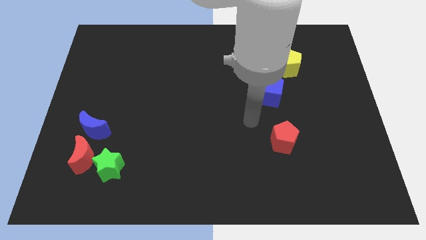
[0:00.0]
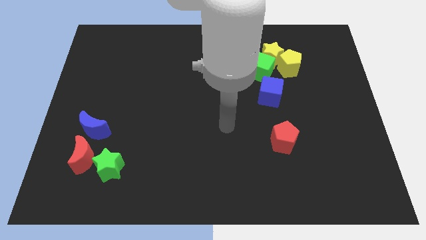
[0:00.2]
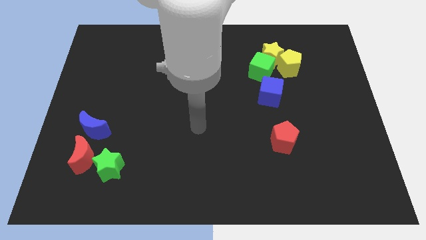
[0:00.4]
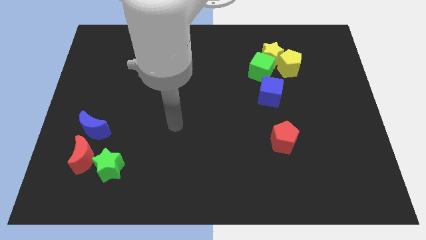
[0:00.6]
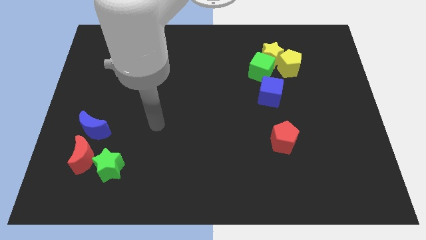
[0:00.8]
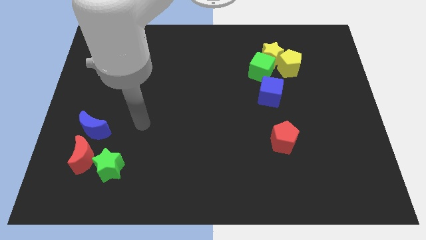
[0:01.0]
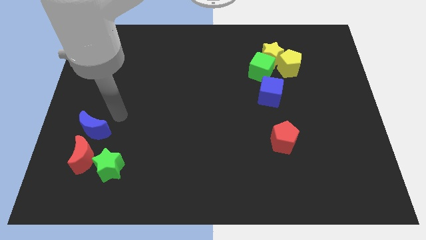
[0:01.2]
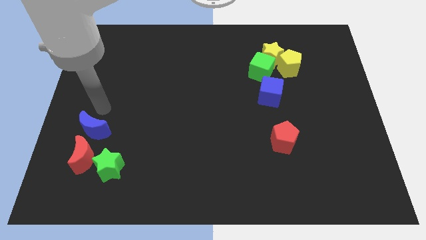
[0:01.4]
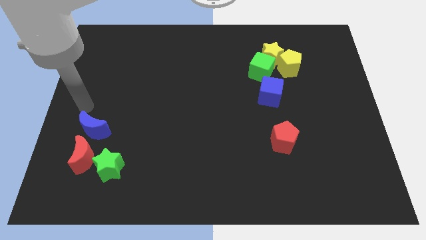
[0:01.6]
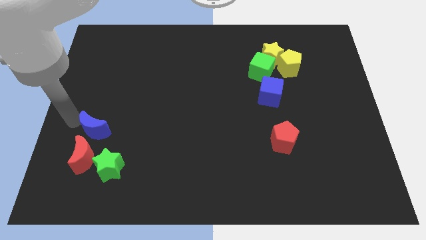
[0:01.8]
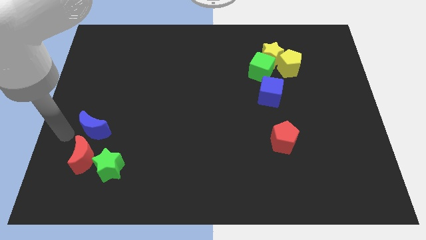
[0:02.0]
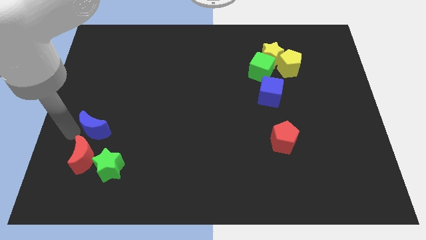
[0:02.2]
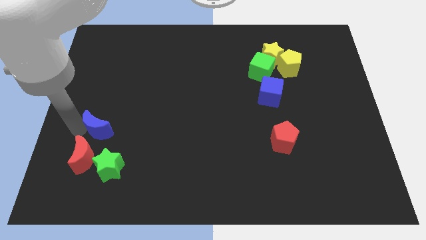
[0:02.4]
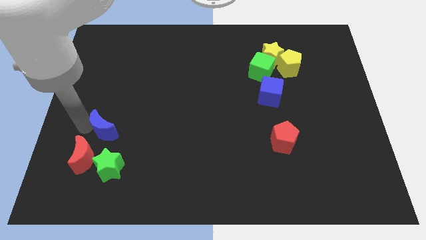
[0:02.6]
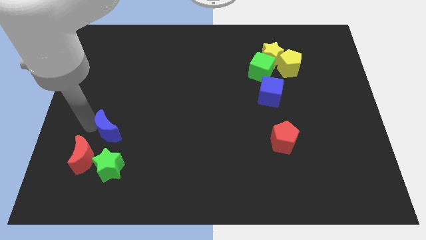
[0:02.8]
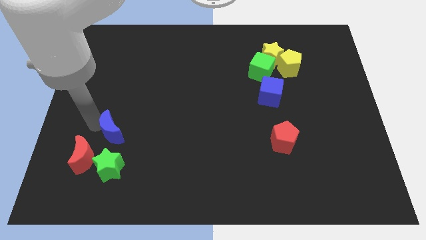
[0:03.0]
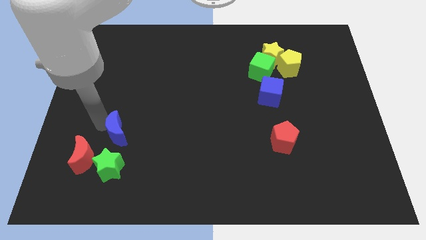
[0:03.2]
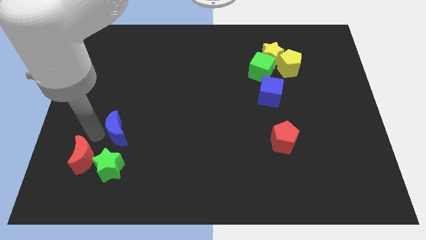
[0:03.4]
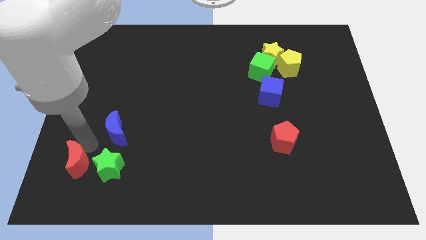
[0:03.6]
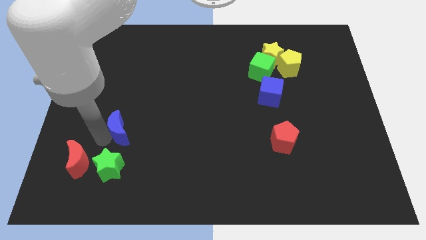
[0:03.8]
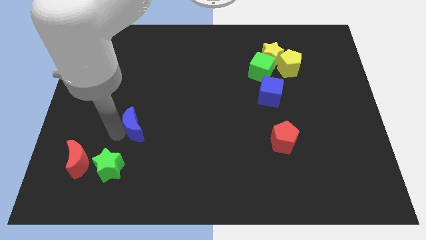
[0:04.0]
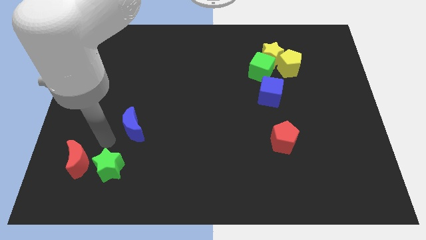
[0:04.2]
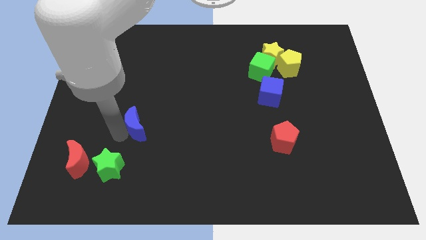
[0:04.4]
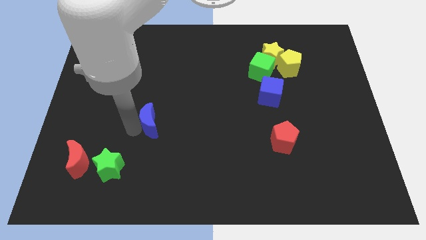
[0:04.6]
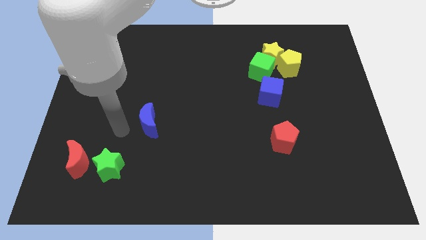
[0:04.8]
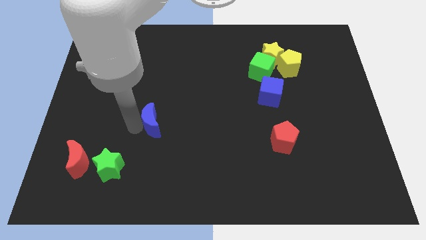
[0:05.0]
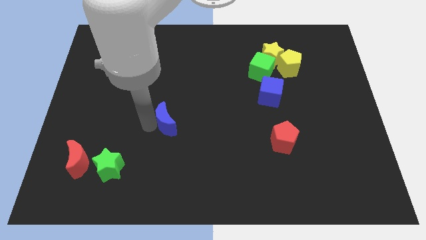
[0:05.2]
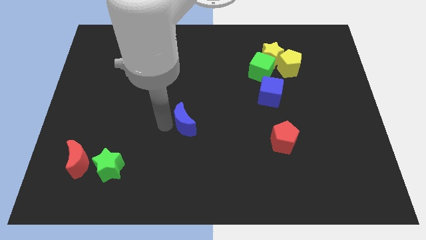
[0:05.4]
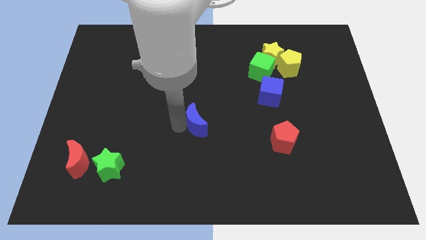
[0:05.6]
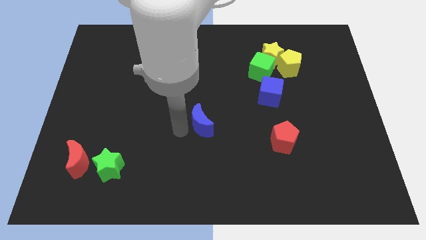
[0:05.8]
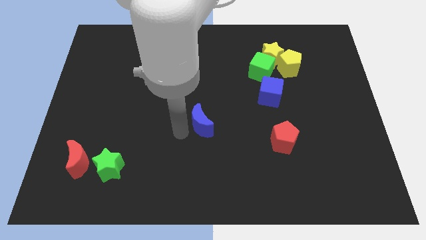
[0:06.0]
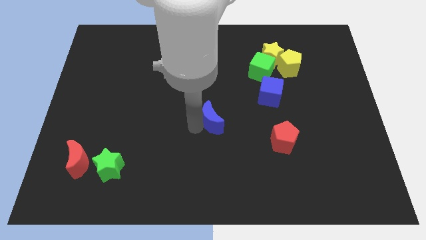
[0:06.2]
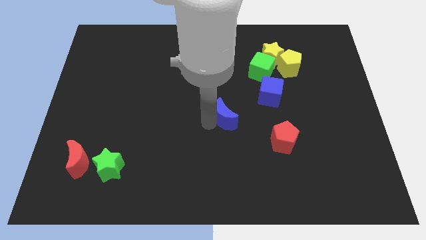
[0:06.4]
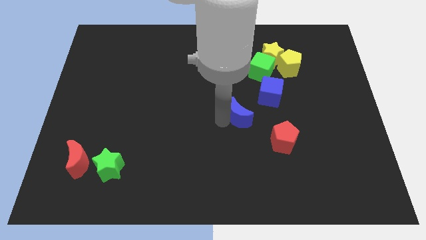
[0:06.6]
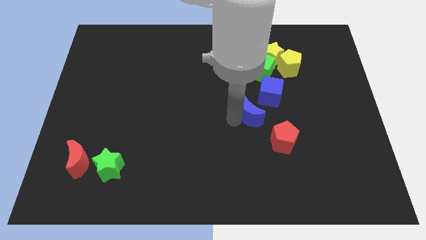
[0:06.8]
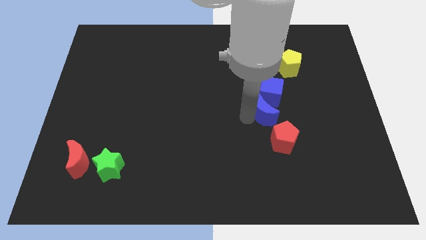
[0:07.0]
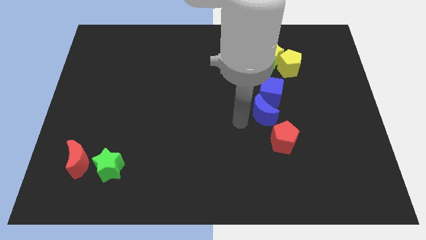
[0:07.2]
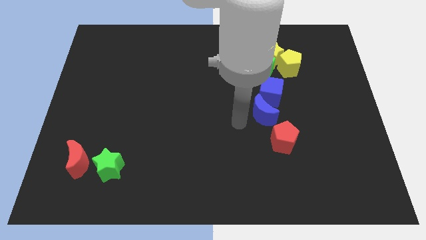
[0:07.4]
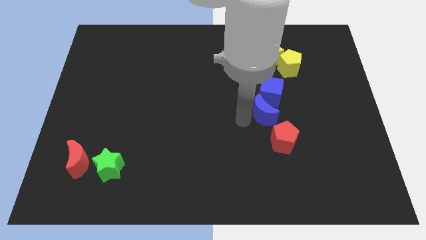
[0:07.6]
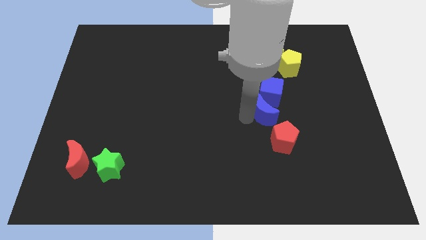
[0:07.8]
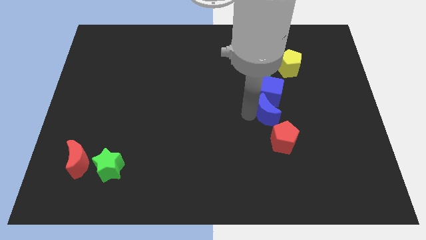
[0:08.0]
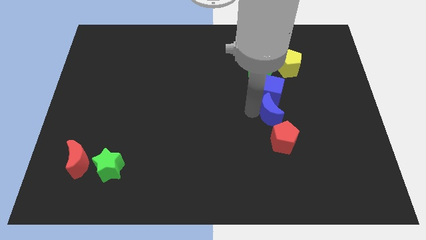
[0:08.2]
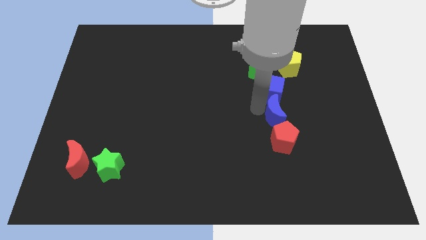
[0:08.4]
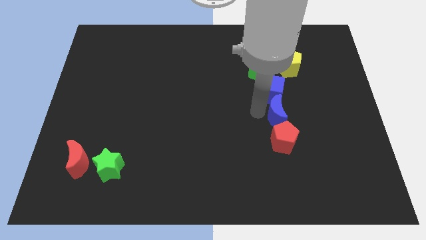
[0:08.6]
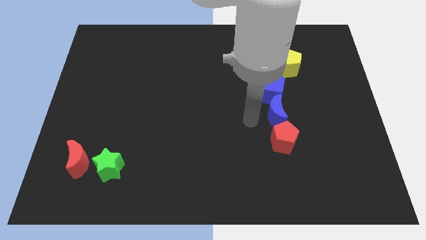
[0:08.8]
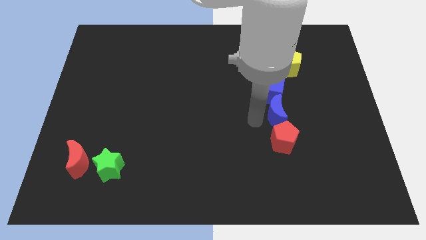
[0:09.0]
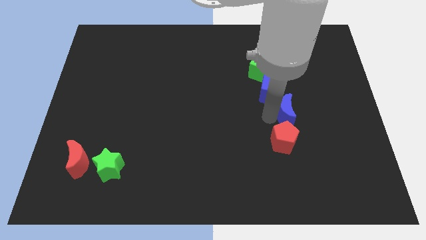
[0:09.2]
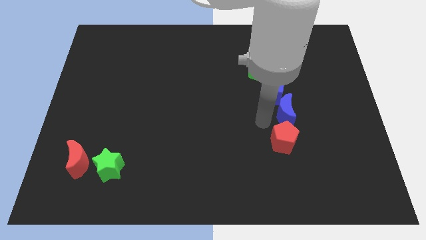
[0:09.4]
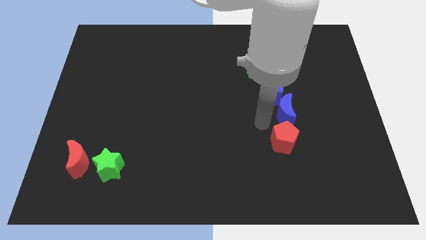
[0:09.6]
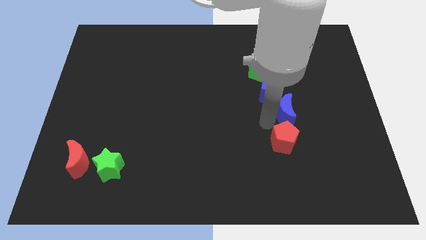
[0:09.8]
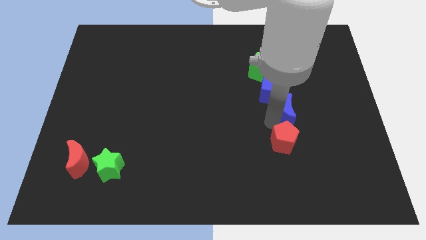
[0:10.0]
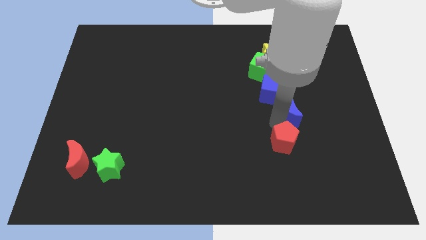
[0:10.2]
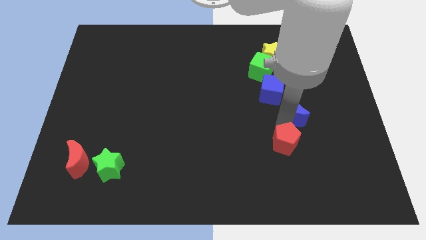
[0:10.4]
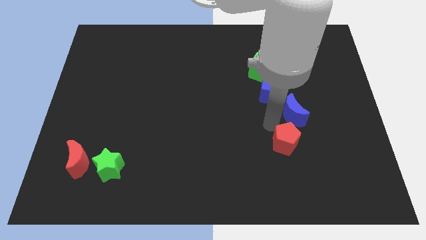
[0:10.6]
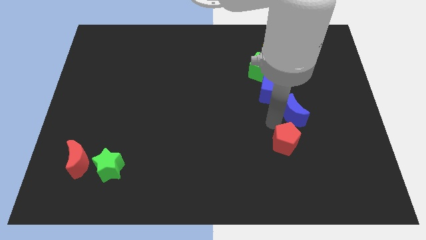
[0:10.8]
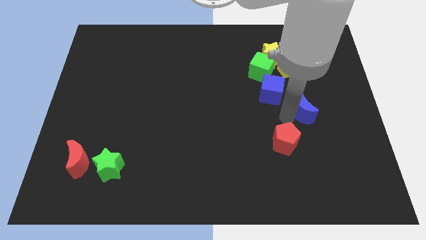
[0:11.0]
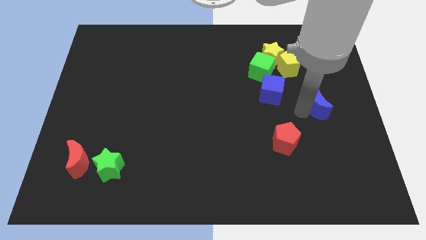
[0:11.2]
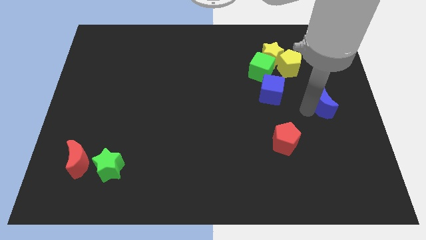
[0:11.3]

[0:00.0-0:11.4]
move the blue moon to the center right

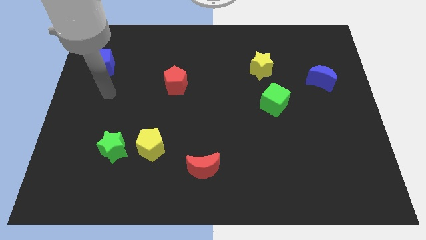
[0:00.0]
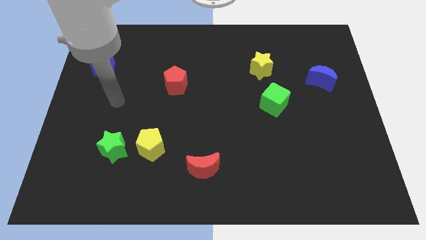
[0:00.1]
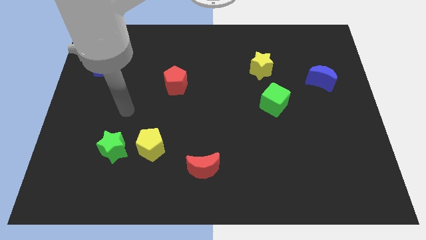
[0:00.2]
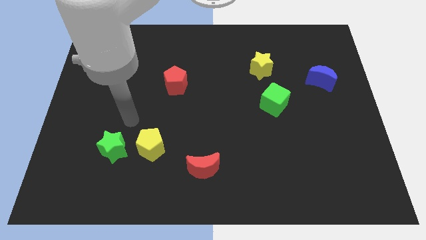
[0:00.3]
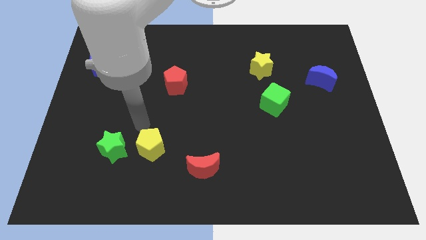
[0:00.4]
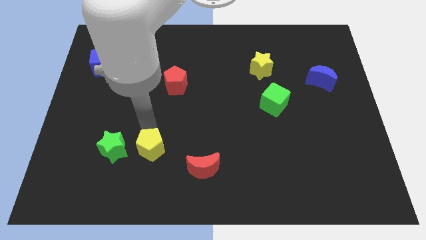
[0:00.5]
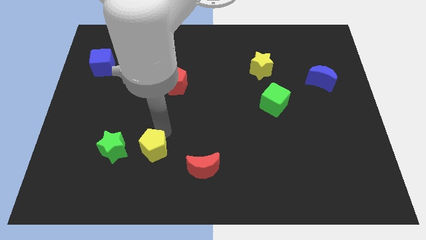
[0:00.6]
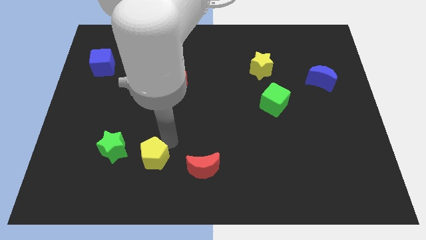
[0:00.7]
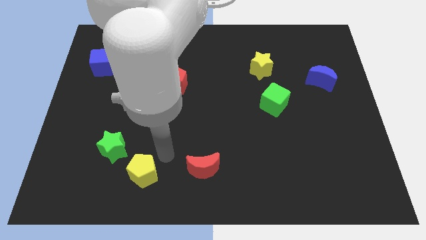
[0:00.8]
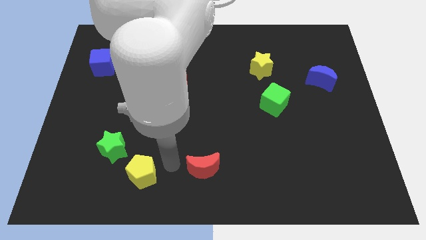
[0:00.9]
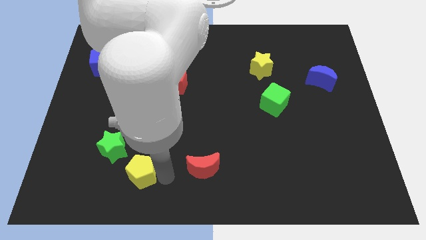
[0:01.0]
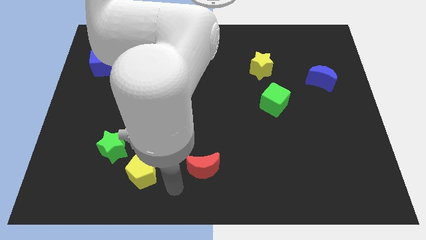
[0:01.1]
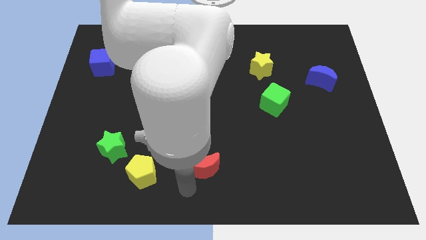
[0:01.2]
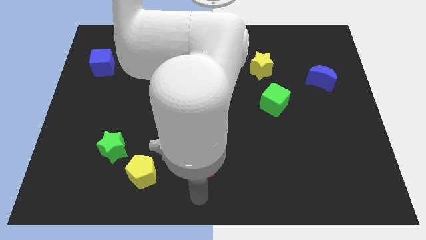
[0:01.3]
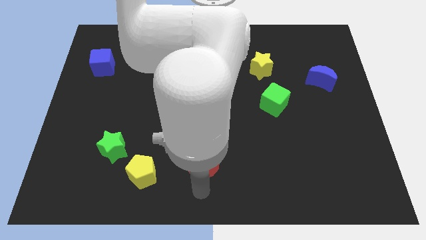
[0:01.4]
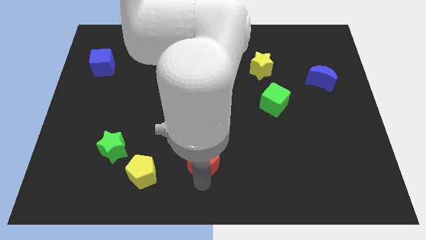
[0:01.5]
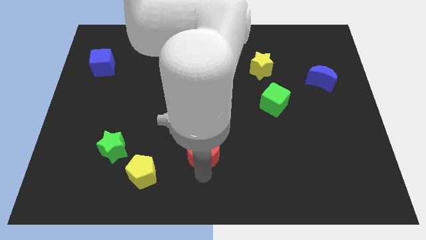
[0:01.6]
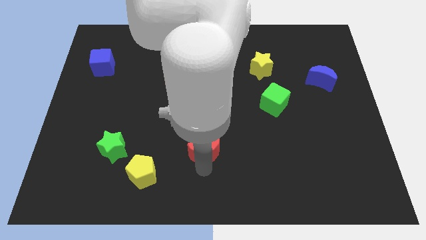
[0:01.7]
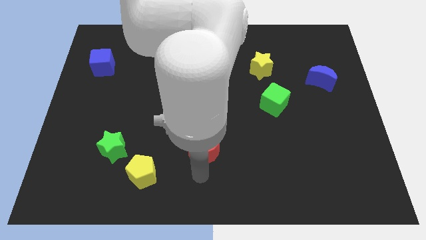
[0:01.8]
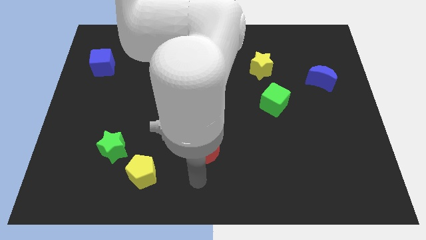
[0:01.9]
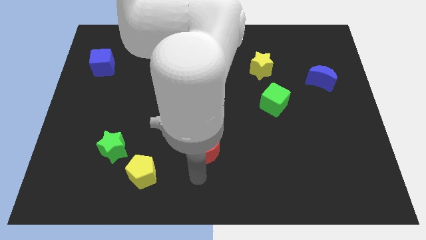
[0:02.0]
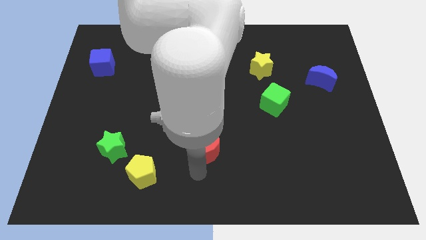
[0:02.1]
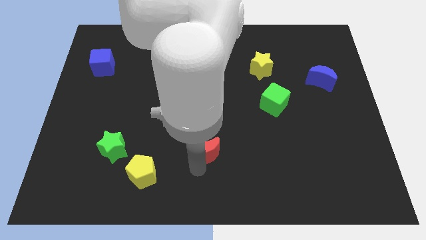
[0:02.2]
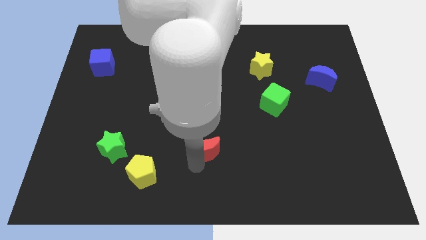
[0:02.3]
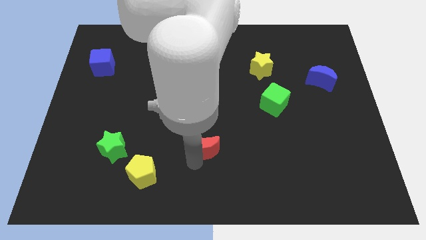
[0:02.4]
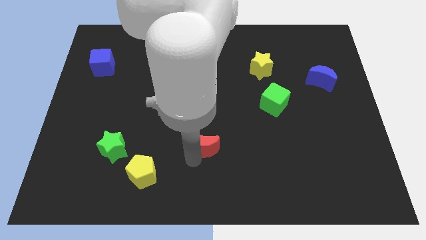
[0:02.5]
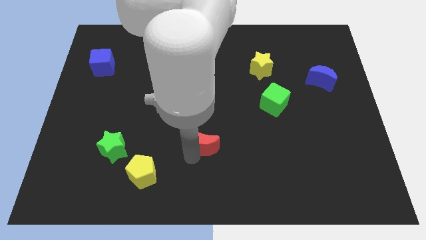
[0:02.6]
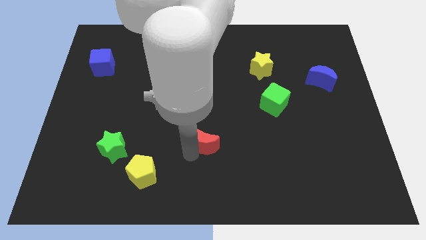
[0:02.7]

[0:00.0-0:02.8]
push the red moon to the middle of the board
